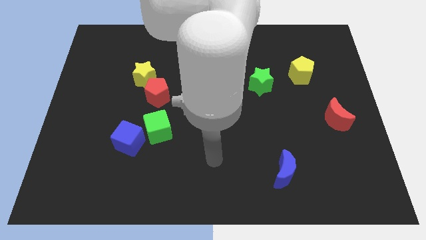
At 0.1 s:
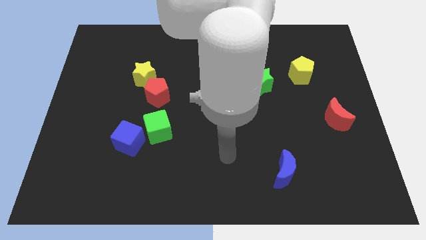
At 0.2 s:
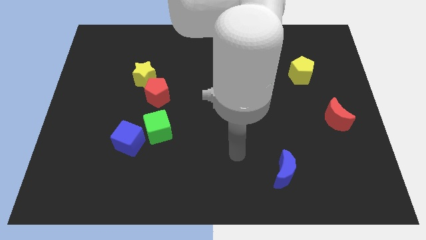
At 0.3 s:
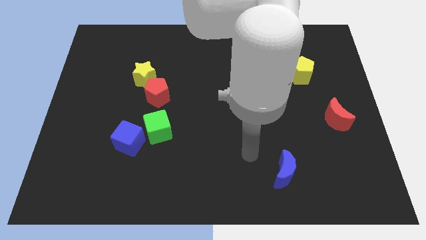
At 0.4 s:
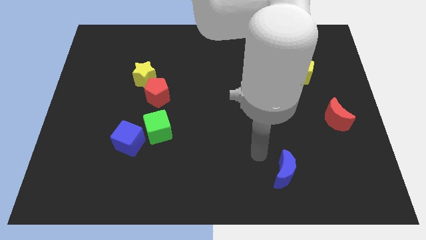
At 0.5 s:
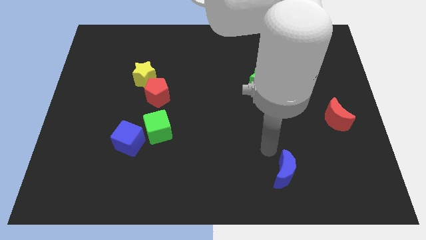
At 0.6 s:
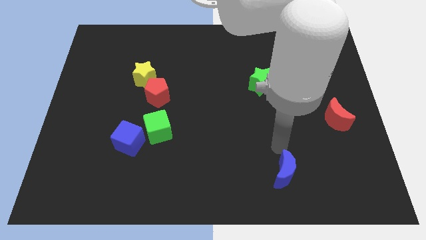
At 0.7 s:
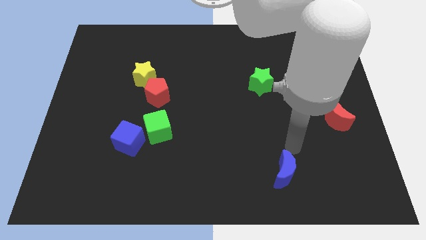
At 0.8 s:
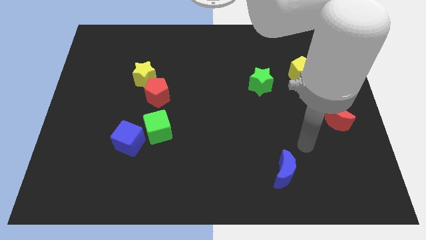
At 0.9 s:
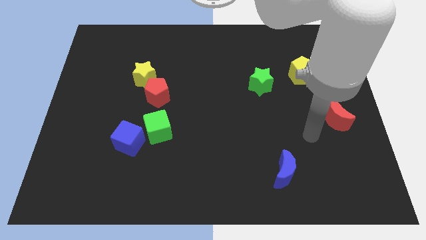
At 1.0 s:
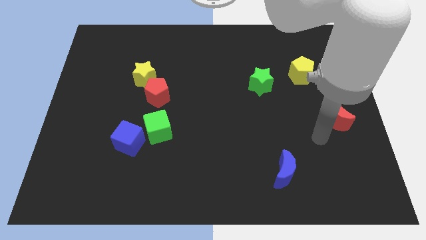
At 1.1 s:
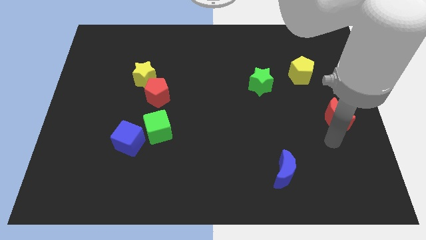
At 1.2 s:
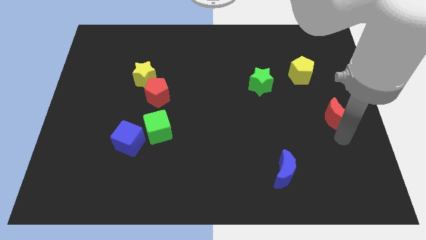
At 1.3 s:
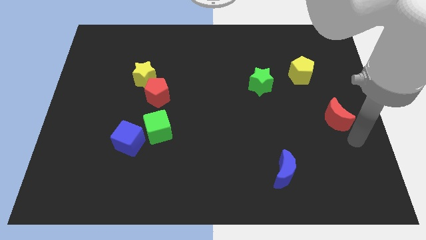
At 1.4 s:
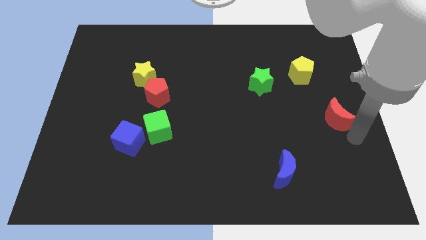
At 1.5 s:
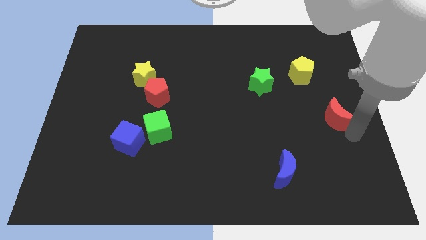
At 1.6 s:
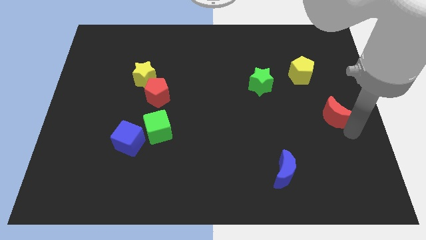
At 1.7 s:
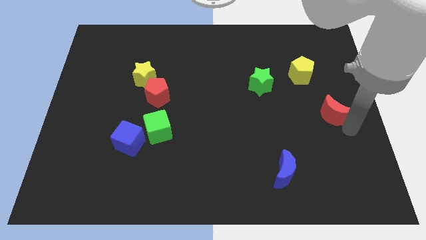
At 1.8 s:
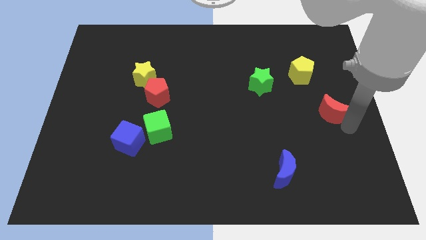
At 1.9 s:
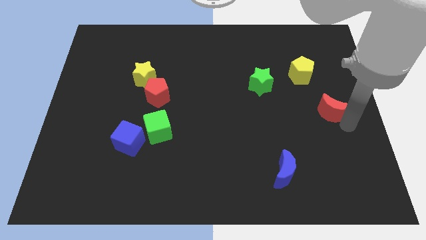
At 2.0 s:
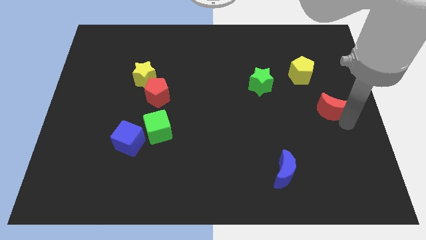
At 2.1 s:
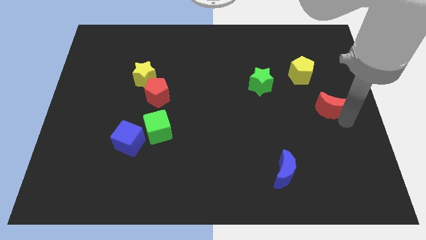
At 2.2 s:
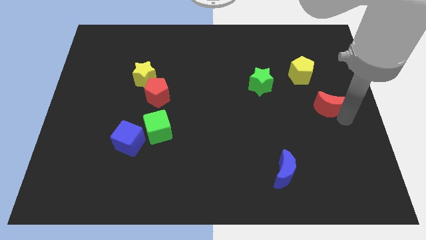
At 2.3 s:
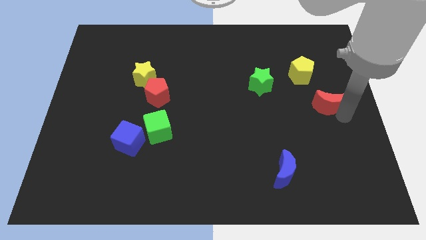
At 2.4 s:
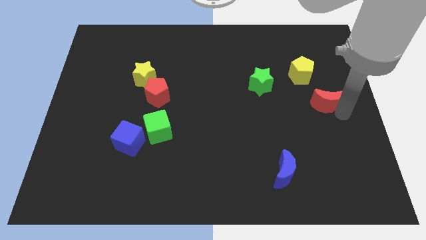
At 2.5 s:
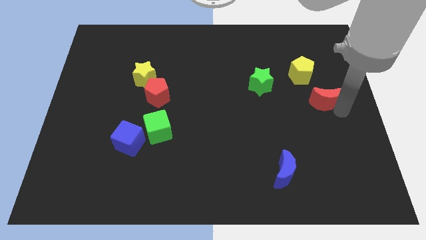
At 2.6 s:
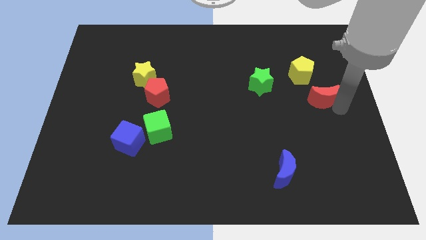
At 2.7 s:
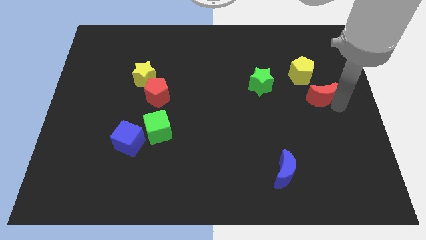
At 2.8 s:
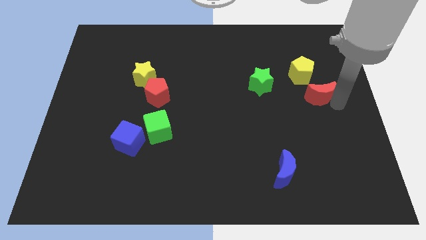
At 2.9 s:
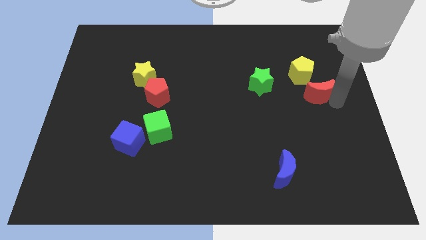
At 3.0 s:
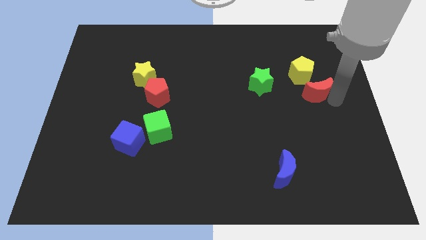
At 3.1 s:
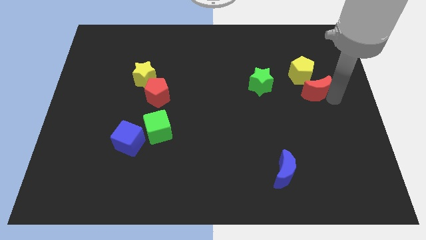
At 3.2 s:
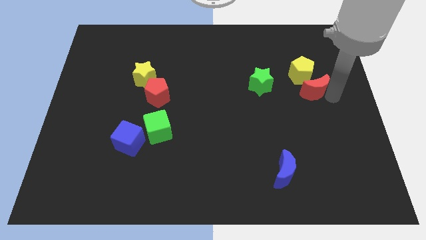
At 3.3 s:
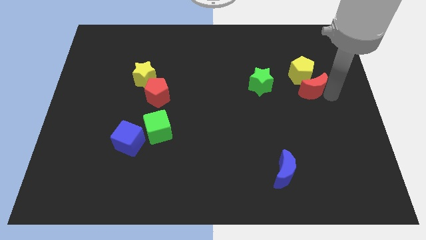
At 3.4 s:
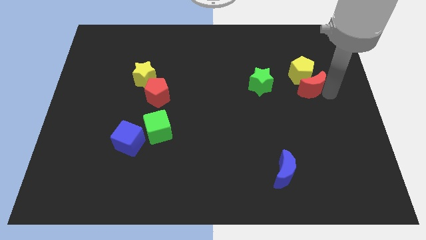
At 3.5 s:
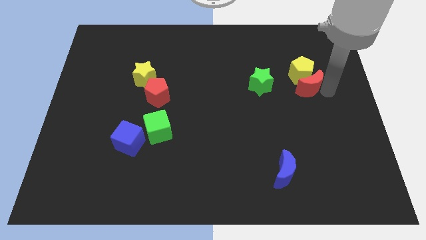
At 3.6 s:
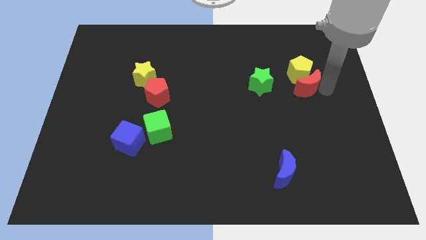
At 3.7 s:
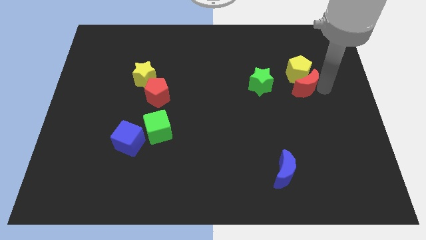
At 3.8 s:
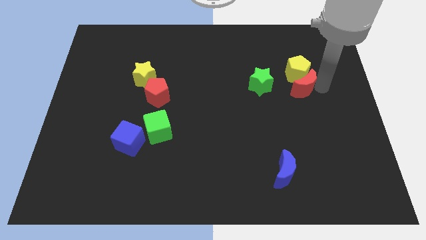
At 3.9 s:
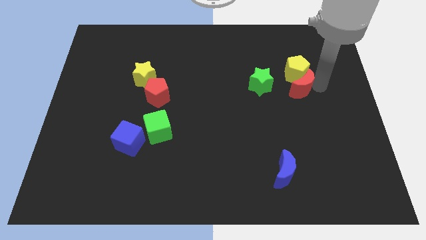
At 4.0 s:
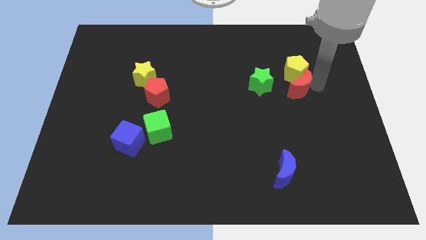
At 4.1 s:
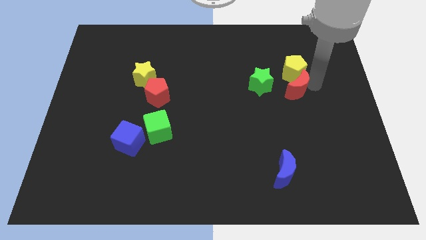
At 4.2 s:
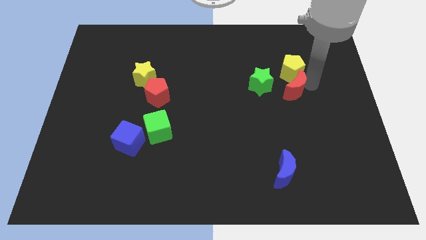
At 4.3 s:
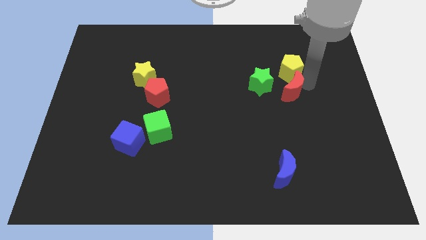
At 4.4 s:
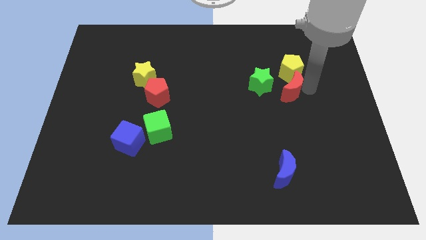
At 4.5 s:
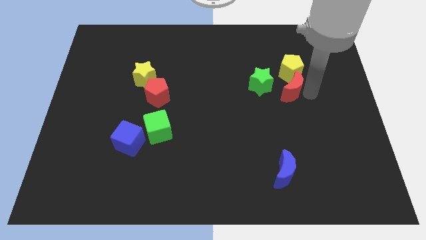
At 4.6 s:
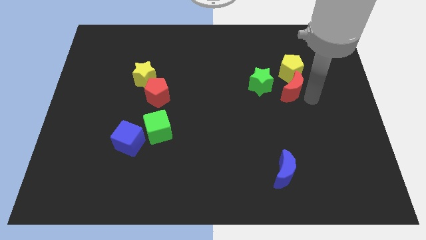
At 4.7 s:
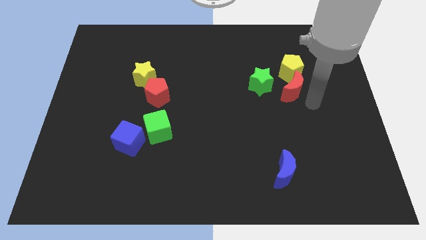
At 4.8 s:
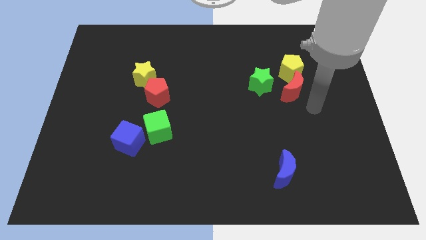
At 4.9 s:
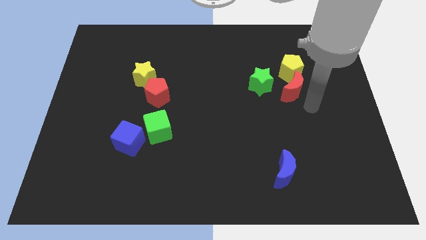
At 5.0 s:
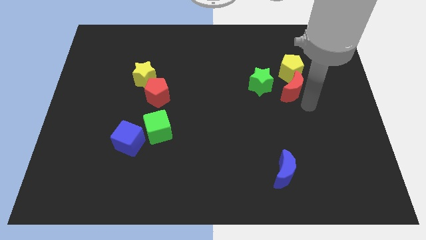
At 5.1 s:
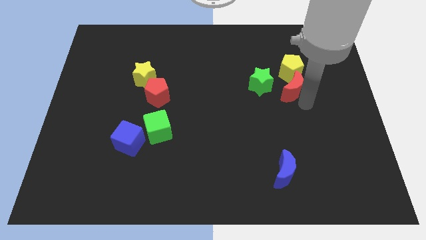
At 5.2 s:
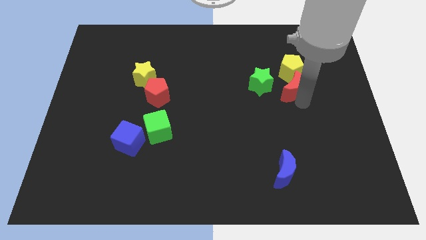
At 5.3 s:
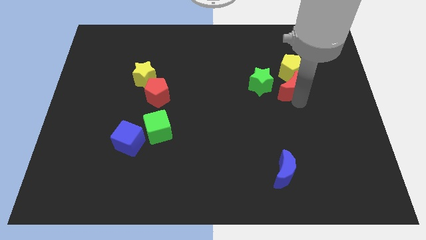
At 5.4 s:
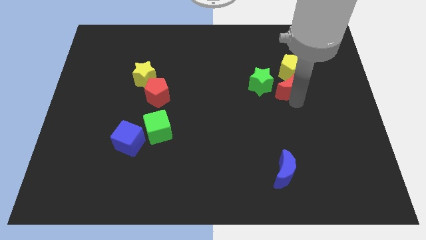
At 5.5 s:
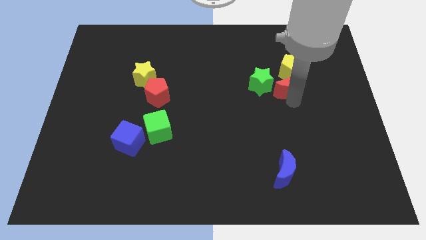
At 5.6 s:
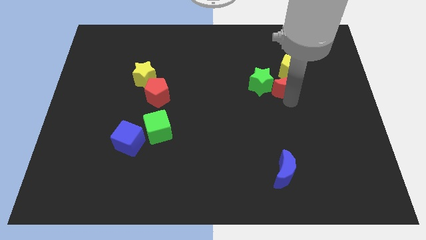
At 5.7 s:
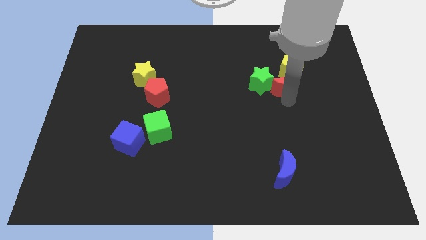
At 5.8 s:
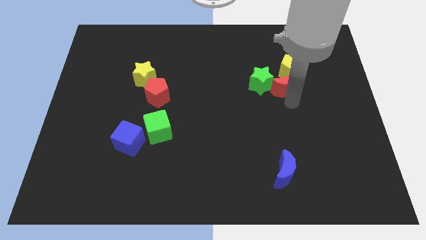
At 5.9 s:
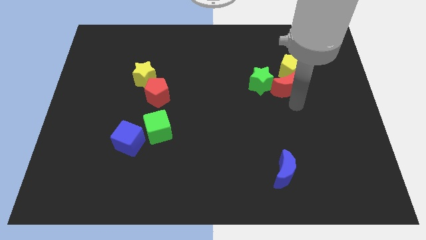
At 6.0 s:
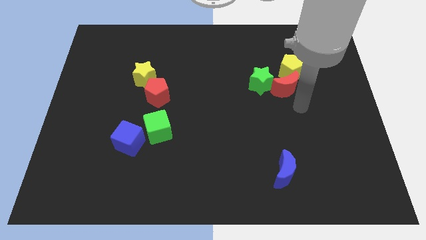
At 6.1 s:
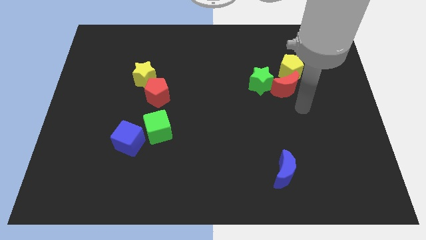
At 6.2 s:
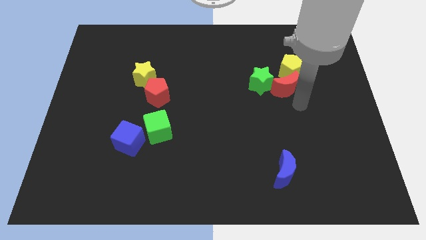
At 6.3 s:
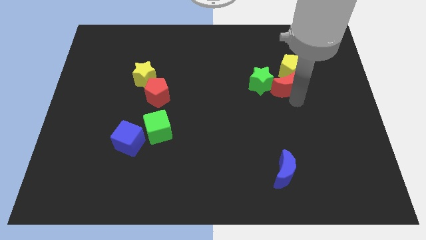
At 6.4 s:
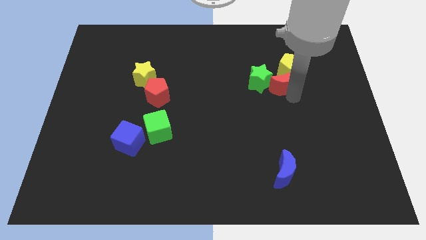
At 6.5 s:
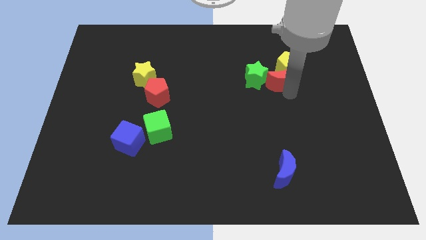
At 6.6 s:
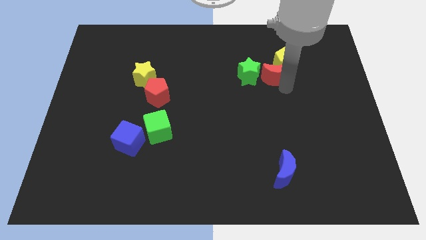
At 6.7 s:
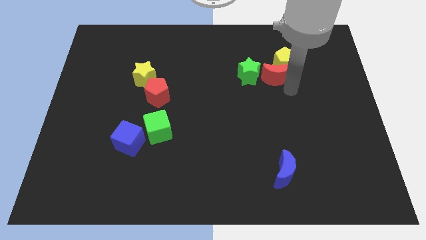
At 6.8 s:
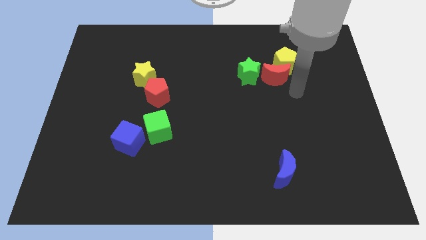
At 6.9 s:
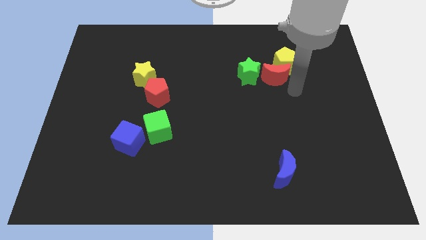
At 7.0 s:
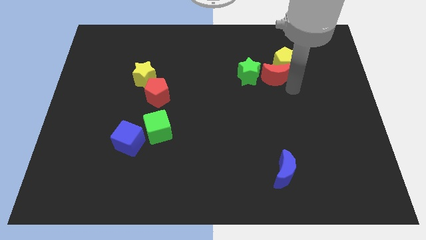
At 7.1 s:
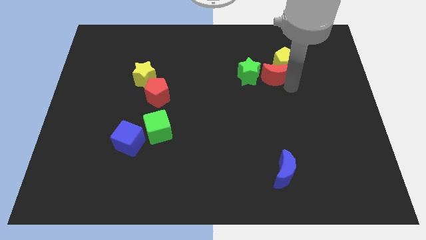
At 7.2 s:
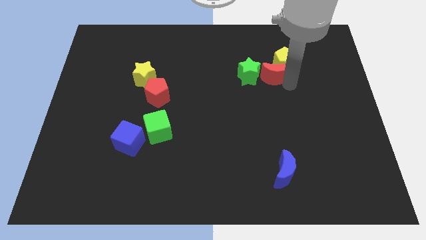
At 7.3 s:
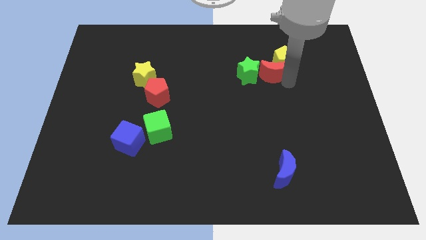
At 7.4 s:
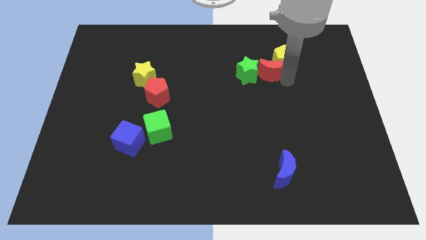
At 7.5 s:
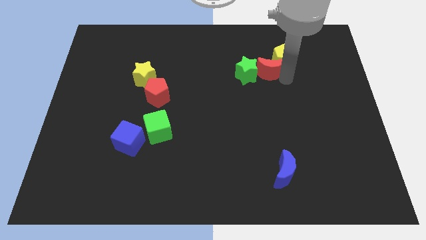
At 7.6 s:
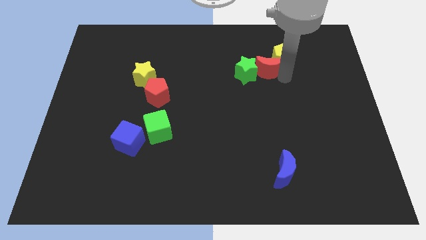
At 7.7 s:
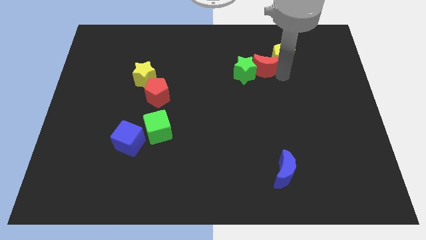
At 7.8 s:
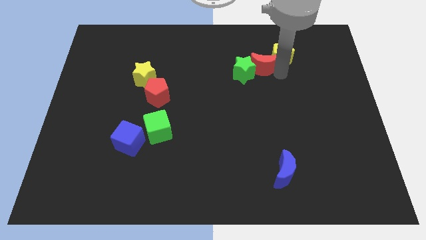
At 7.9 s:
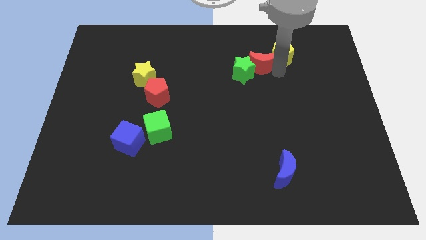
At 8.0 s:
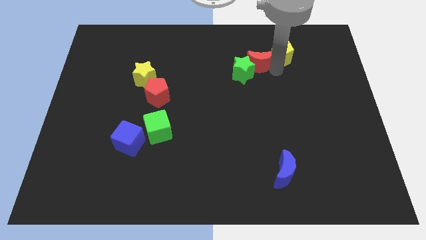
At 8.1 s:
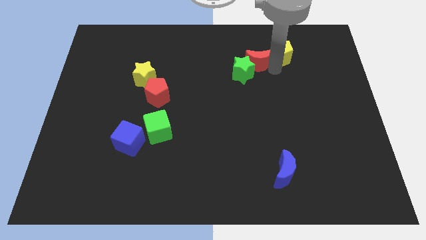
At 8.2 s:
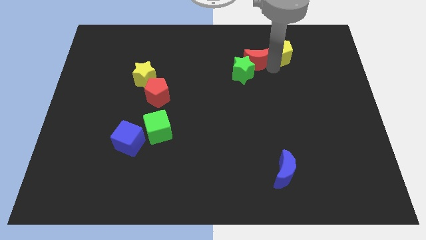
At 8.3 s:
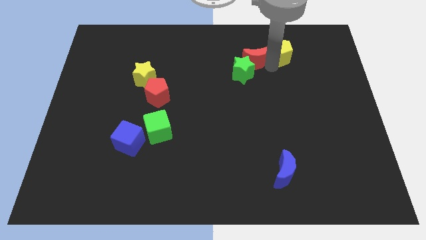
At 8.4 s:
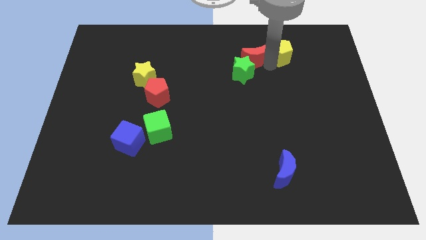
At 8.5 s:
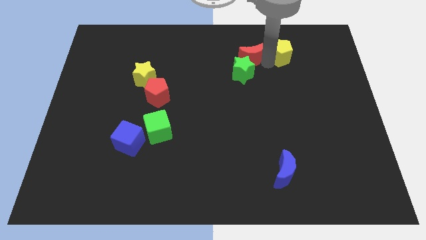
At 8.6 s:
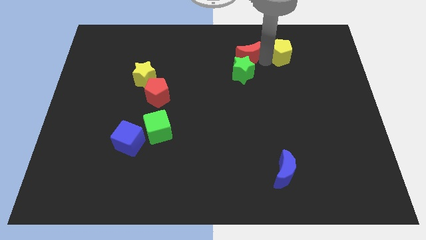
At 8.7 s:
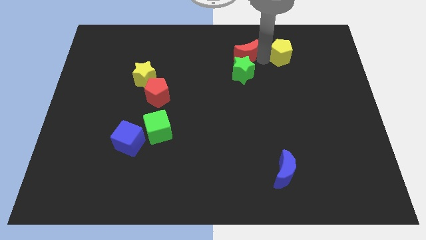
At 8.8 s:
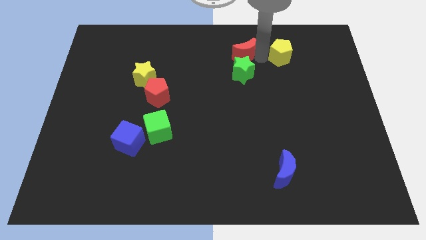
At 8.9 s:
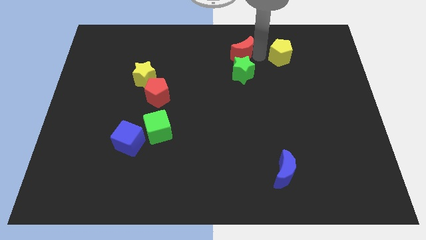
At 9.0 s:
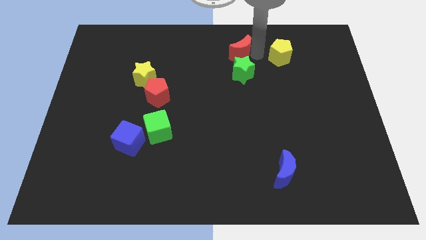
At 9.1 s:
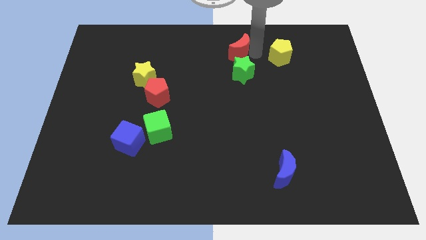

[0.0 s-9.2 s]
slide the red moon to the top side
